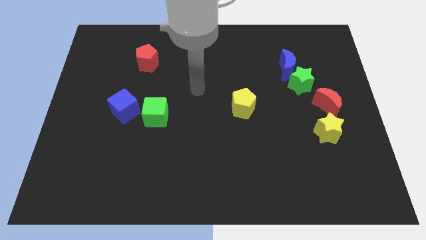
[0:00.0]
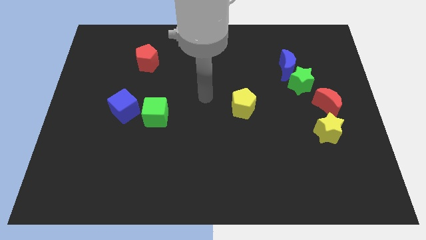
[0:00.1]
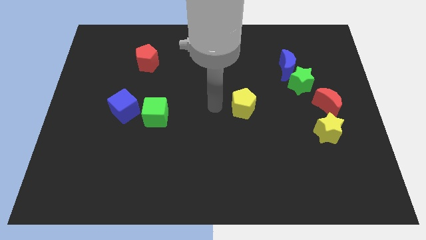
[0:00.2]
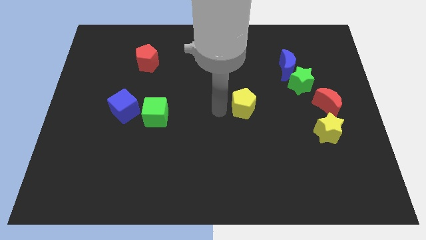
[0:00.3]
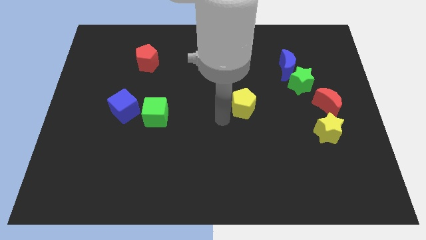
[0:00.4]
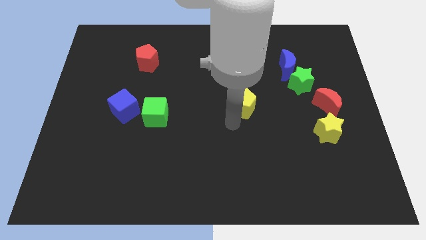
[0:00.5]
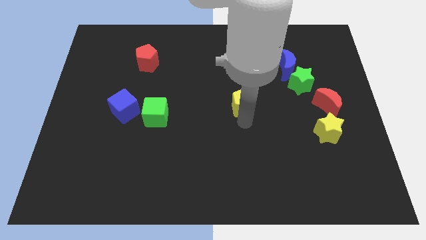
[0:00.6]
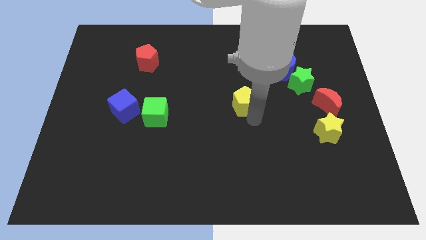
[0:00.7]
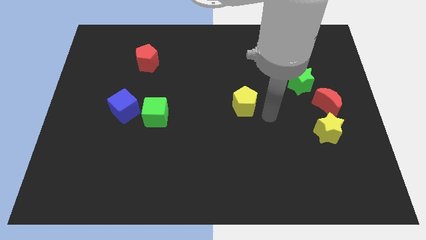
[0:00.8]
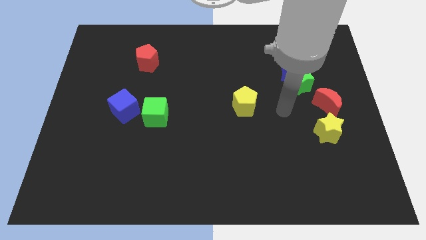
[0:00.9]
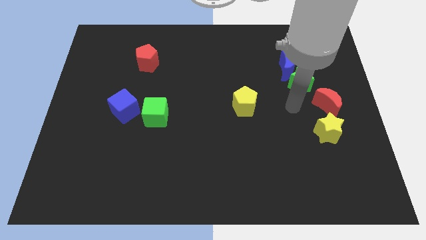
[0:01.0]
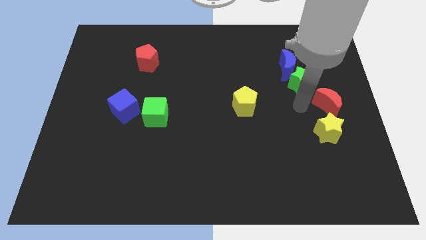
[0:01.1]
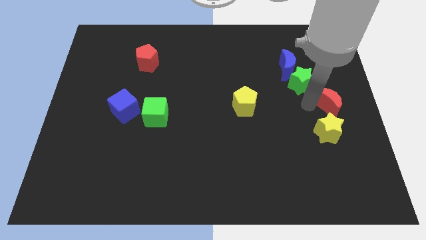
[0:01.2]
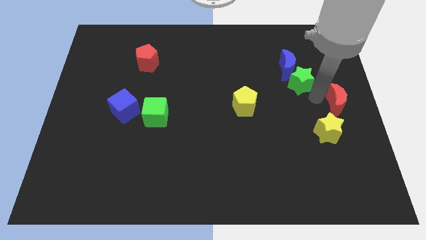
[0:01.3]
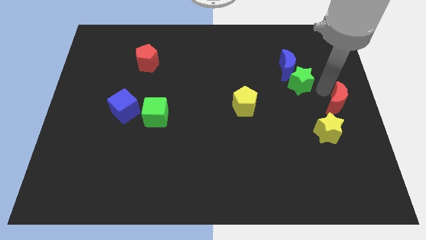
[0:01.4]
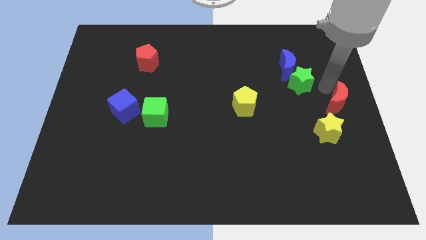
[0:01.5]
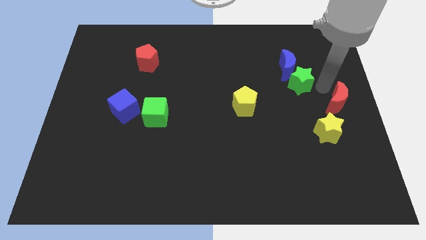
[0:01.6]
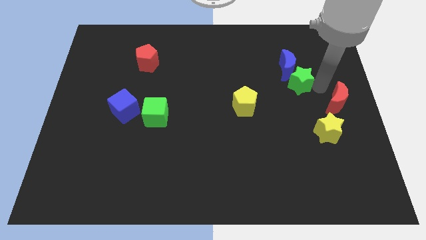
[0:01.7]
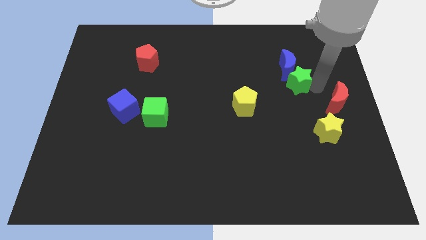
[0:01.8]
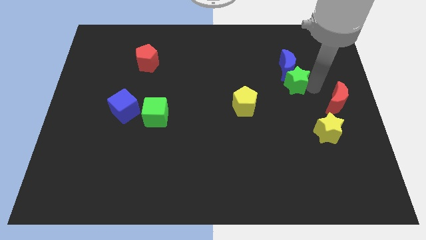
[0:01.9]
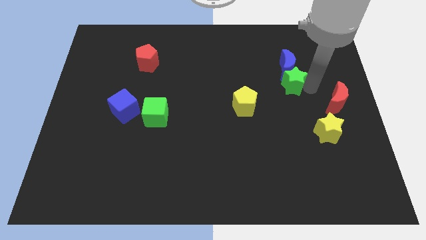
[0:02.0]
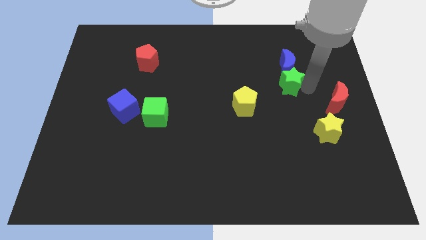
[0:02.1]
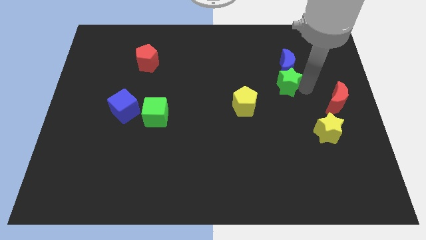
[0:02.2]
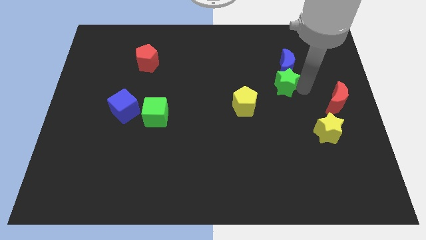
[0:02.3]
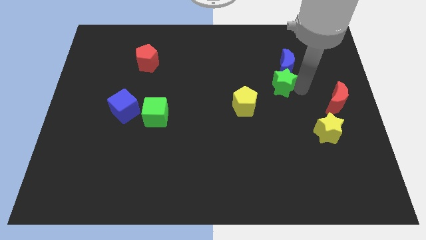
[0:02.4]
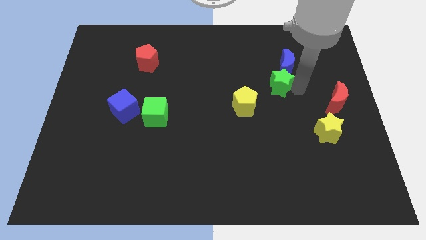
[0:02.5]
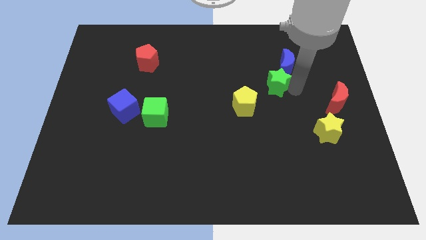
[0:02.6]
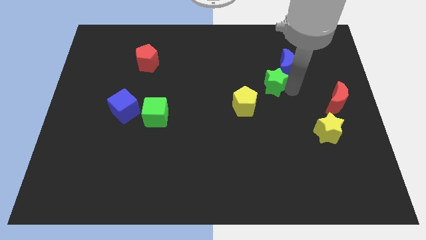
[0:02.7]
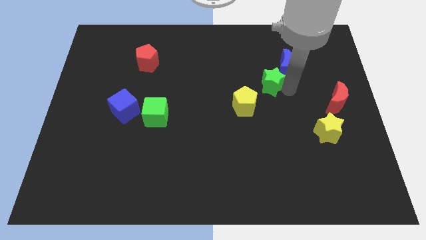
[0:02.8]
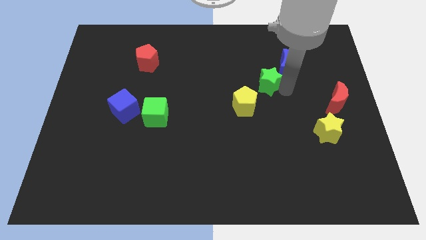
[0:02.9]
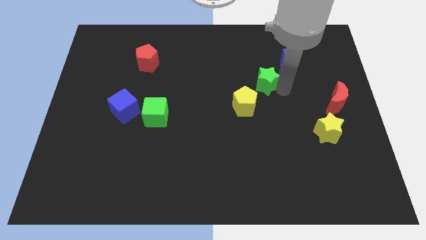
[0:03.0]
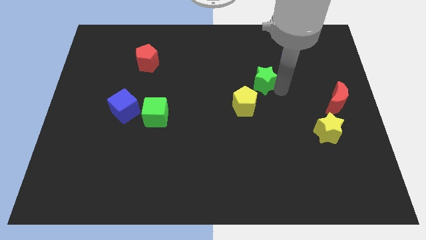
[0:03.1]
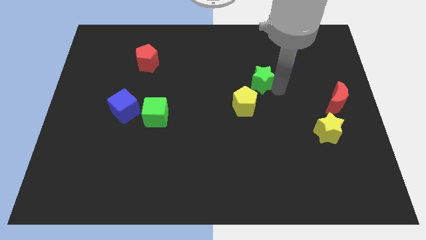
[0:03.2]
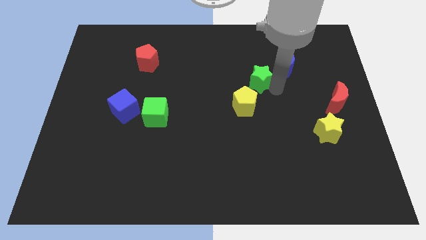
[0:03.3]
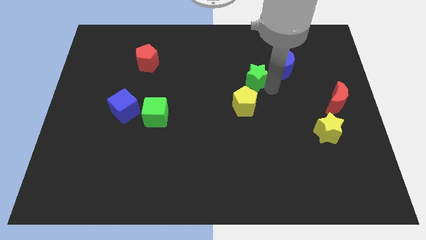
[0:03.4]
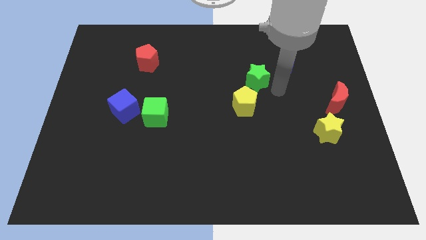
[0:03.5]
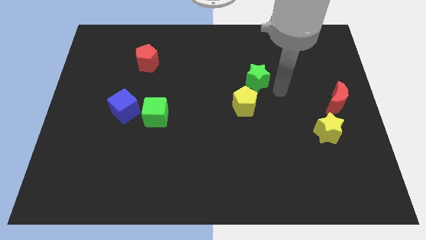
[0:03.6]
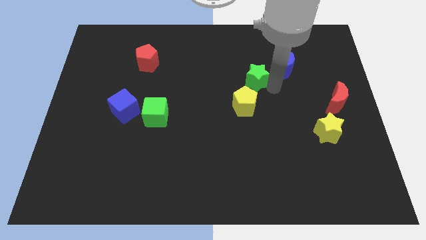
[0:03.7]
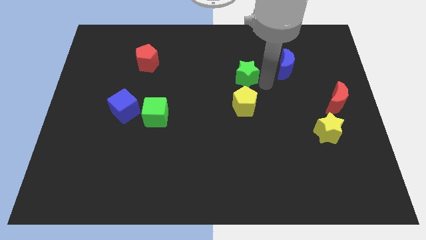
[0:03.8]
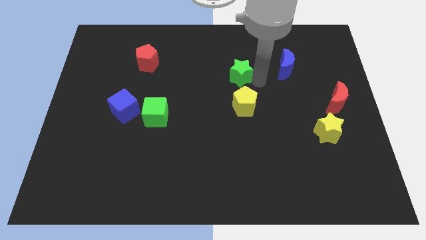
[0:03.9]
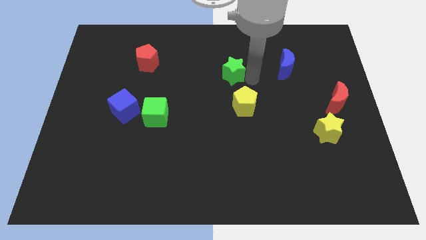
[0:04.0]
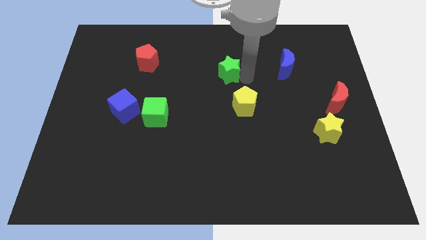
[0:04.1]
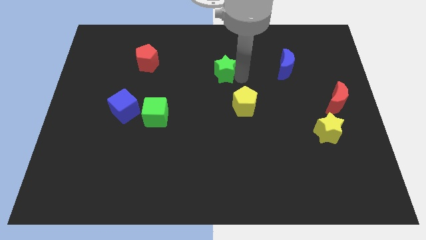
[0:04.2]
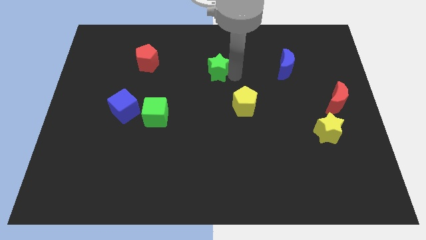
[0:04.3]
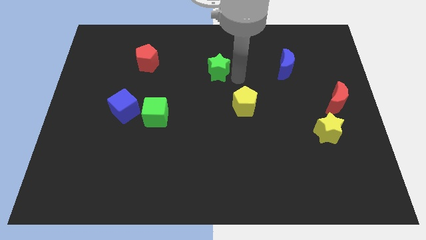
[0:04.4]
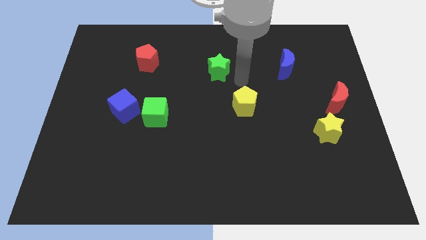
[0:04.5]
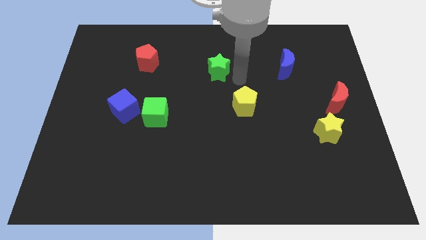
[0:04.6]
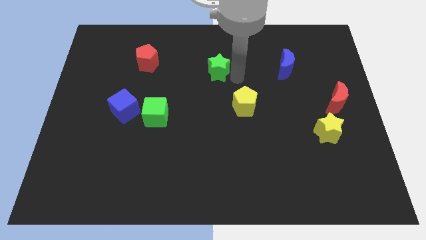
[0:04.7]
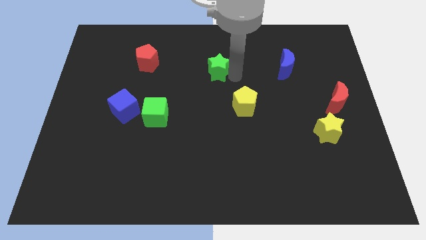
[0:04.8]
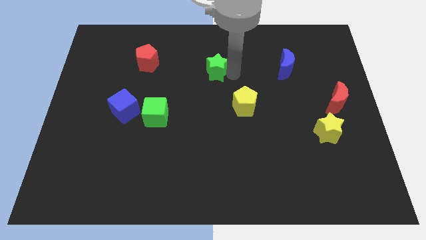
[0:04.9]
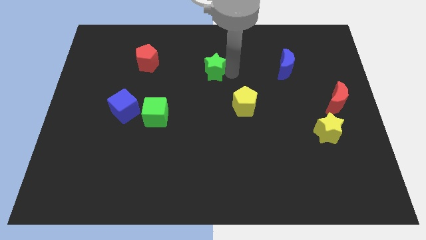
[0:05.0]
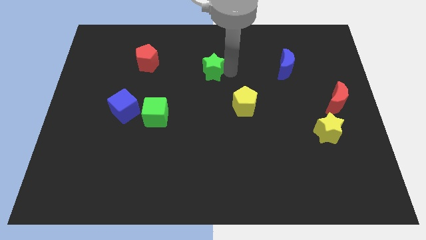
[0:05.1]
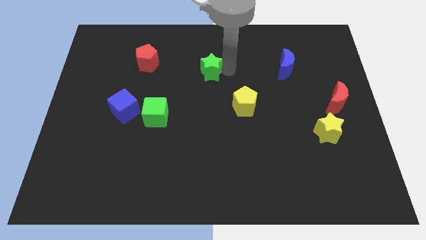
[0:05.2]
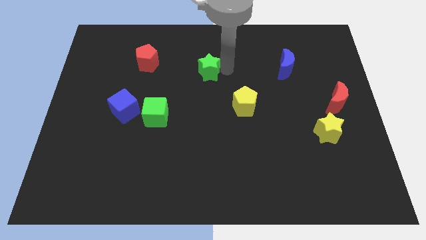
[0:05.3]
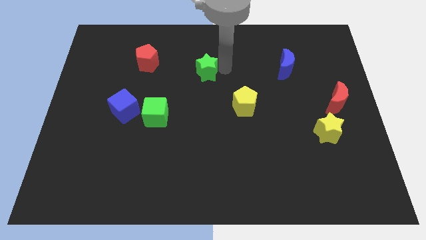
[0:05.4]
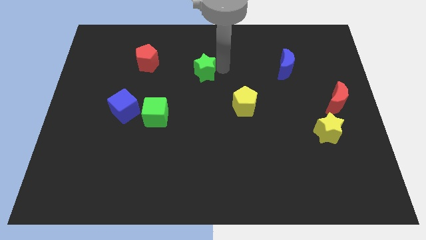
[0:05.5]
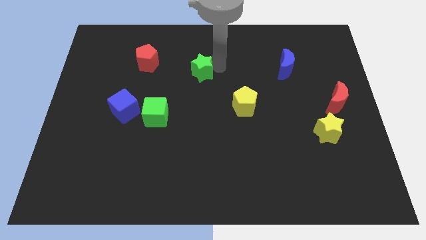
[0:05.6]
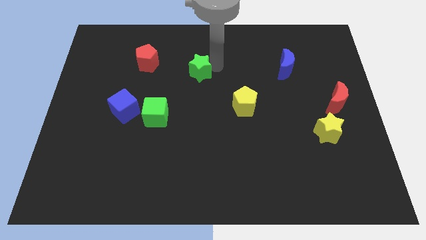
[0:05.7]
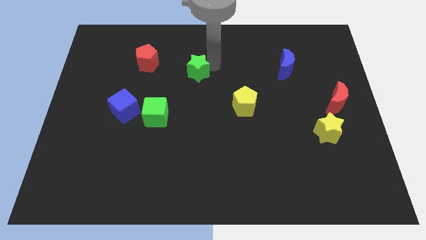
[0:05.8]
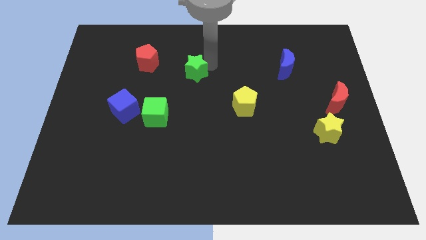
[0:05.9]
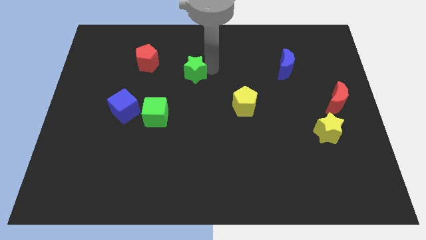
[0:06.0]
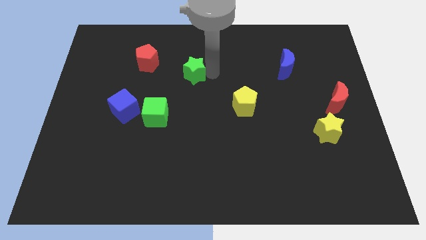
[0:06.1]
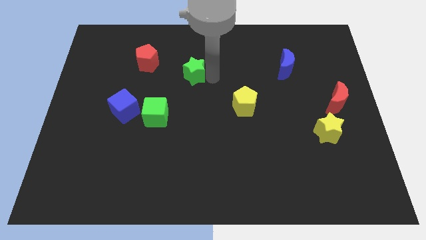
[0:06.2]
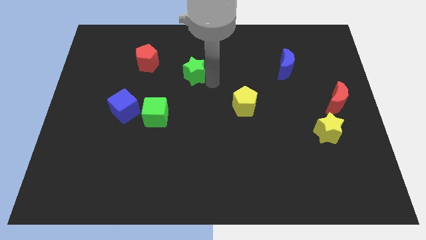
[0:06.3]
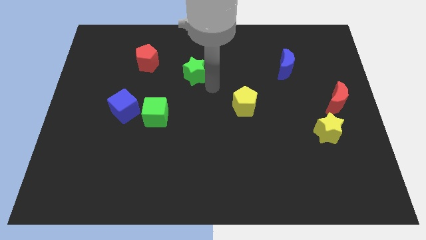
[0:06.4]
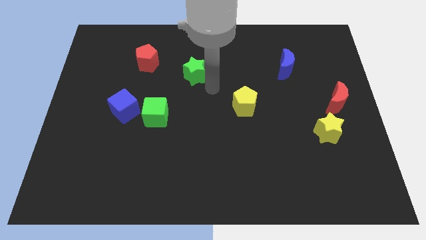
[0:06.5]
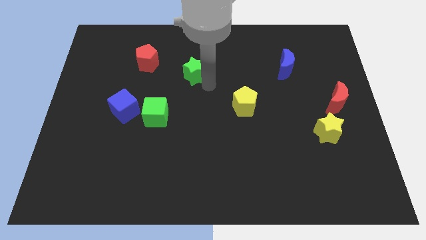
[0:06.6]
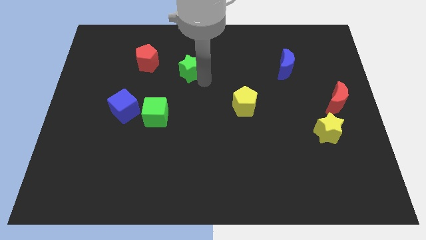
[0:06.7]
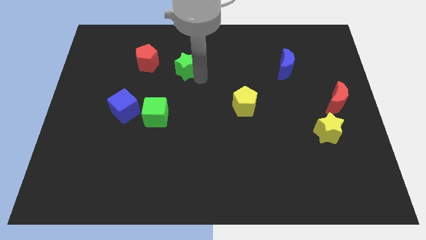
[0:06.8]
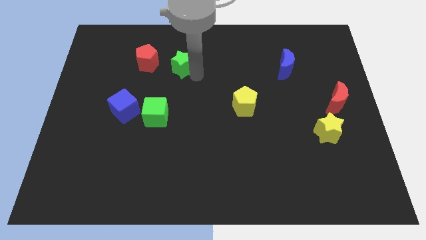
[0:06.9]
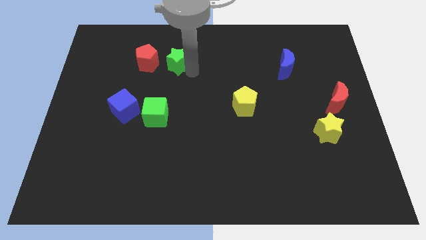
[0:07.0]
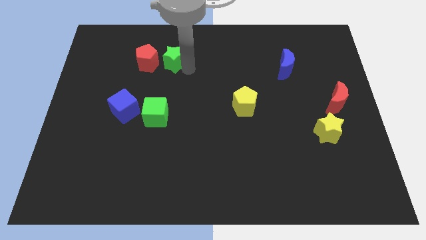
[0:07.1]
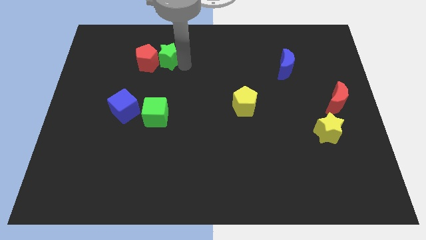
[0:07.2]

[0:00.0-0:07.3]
move the green star close to the red pentagon
